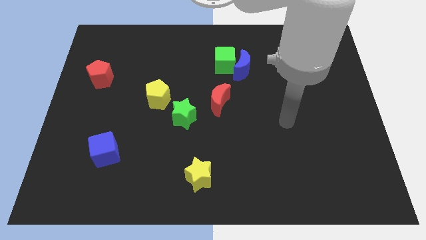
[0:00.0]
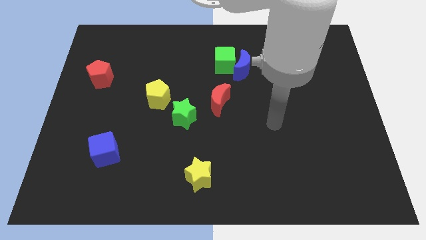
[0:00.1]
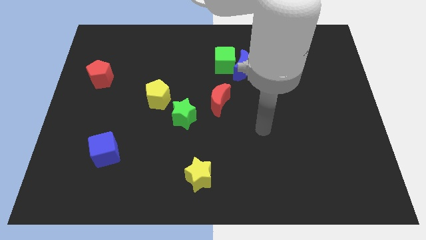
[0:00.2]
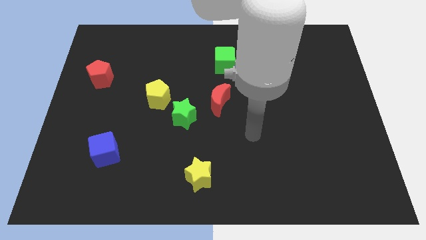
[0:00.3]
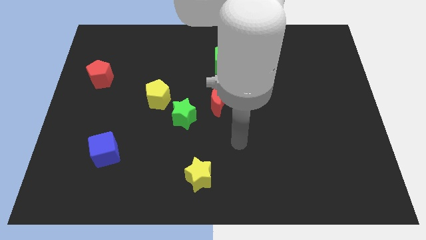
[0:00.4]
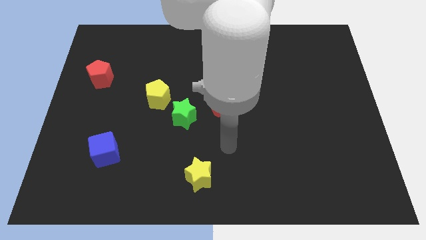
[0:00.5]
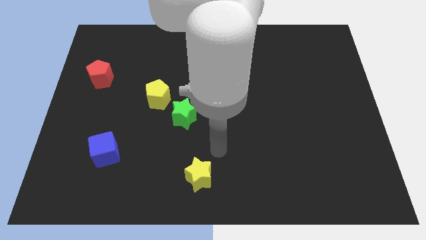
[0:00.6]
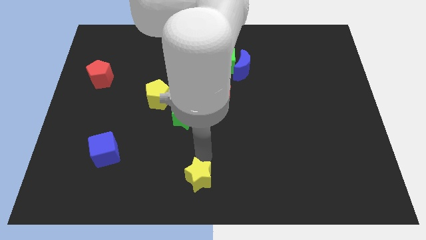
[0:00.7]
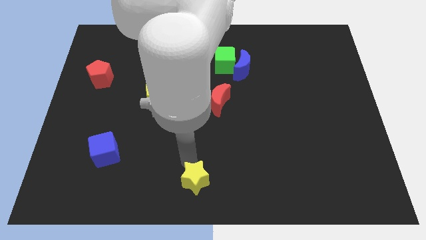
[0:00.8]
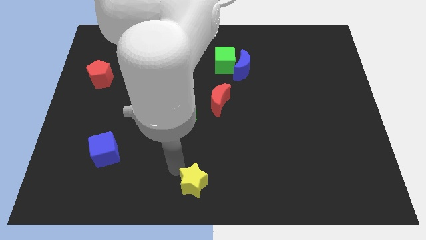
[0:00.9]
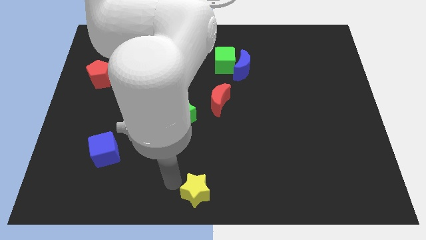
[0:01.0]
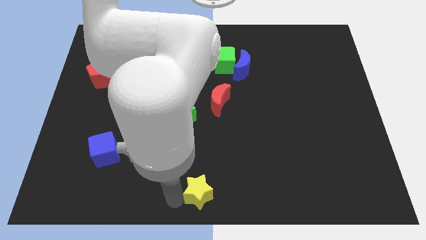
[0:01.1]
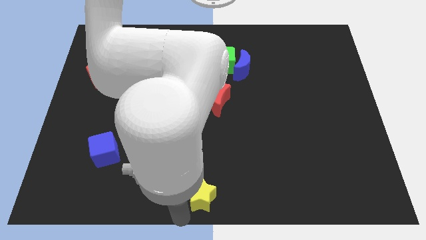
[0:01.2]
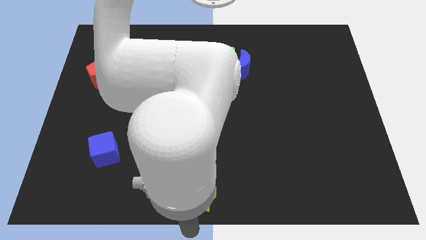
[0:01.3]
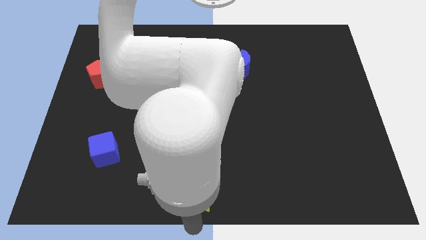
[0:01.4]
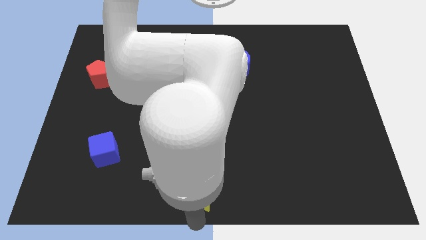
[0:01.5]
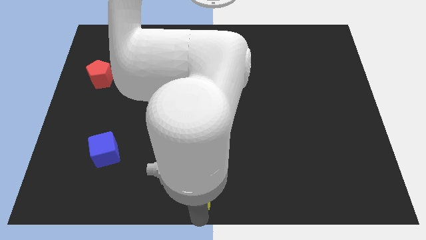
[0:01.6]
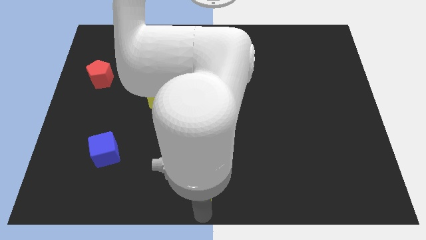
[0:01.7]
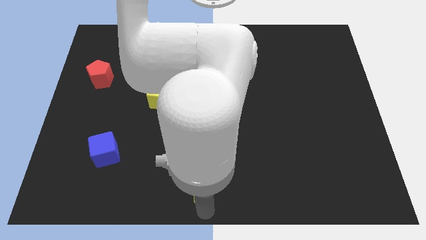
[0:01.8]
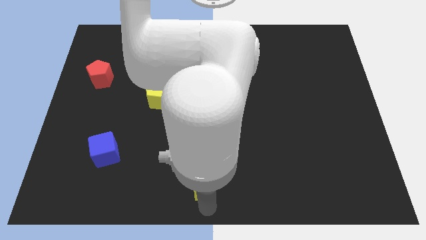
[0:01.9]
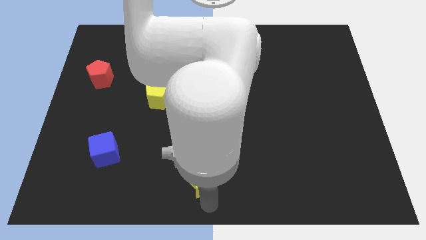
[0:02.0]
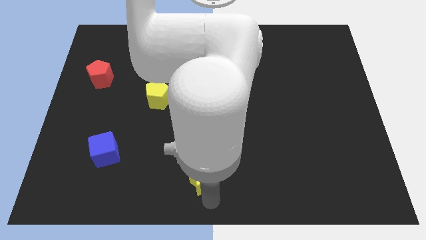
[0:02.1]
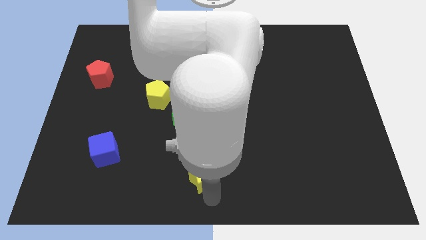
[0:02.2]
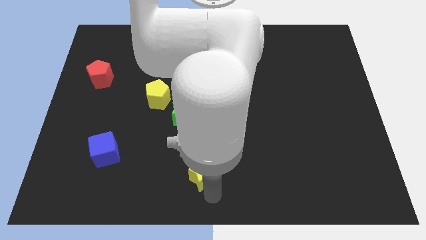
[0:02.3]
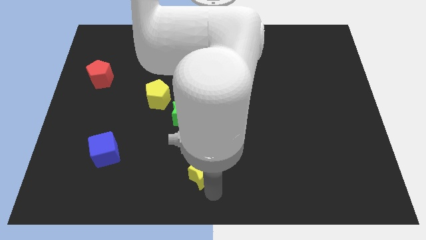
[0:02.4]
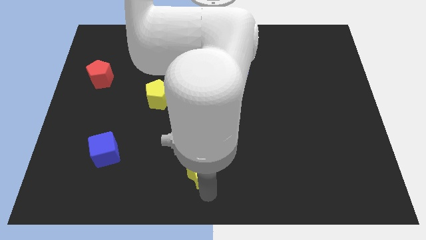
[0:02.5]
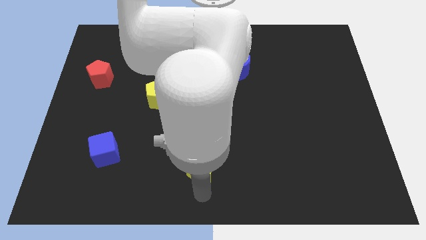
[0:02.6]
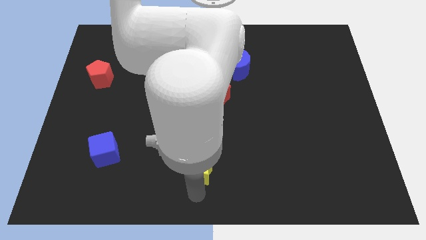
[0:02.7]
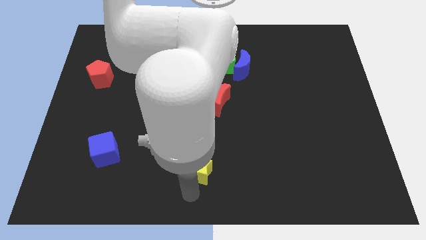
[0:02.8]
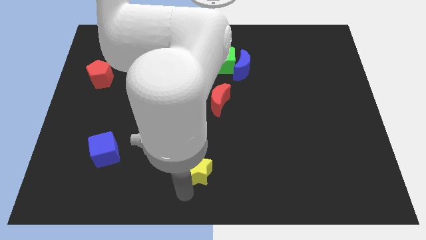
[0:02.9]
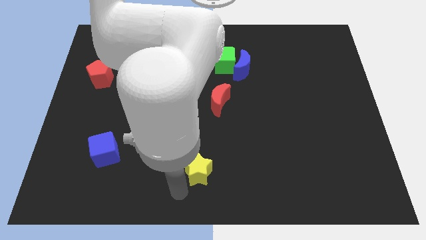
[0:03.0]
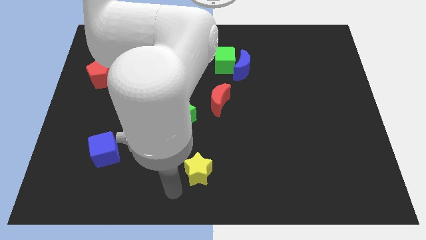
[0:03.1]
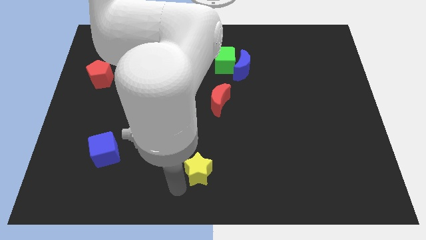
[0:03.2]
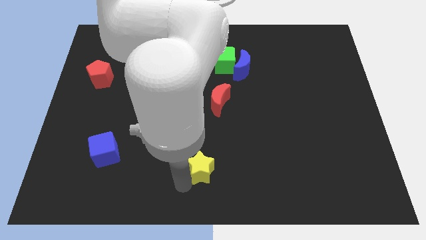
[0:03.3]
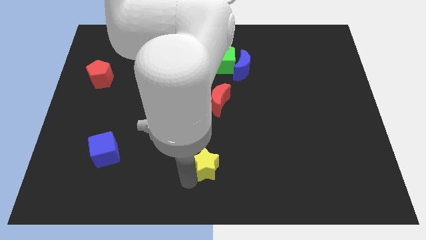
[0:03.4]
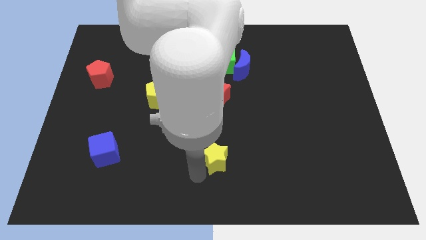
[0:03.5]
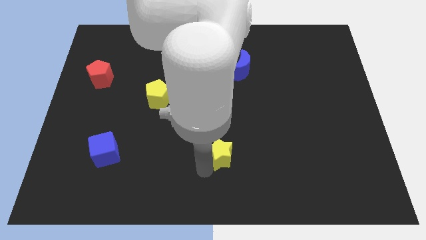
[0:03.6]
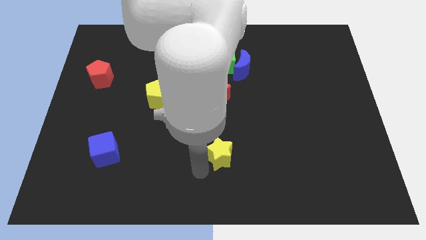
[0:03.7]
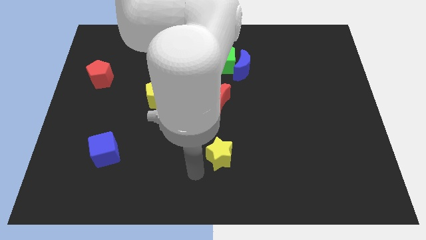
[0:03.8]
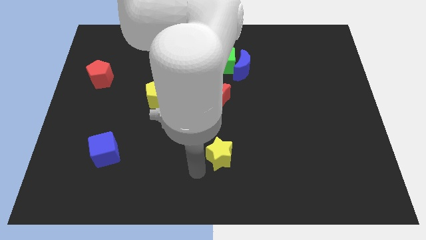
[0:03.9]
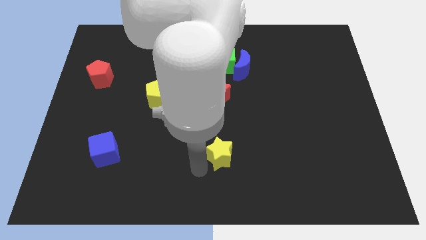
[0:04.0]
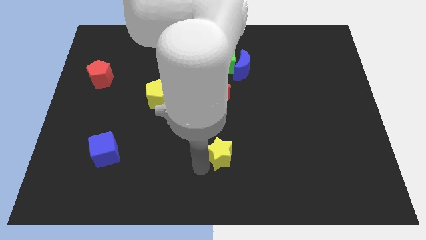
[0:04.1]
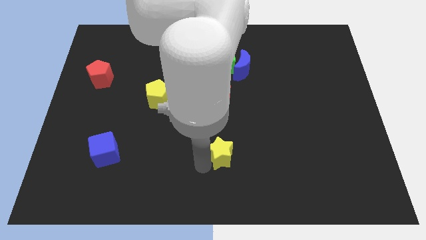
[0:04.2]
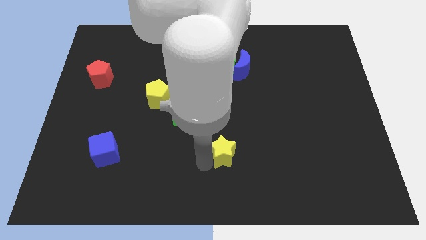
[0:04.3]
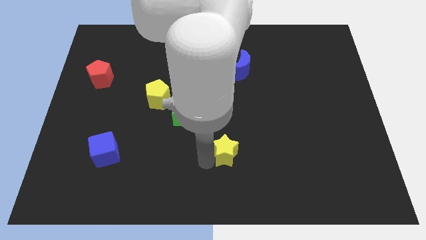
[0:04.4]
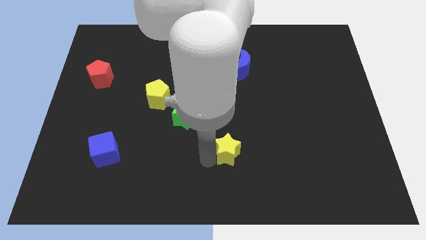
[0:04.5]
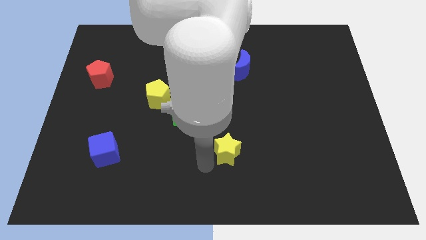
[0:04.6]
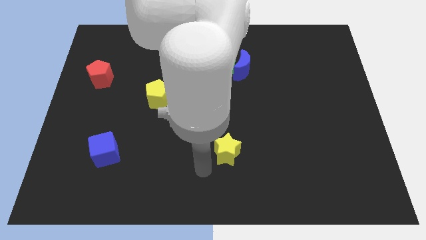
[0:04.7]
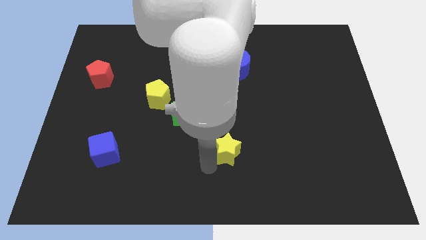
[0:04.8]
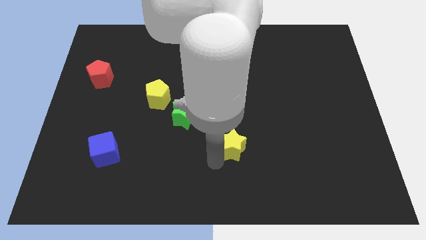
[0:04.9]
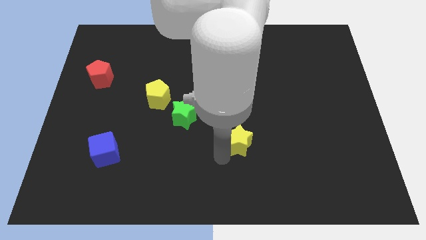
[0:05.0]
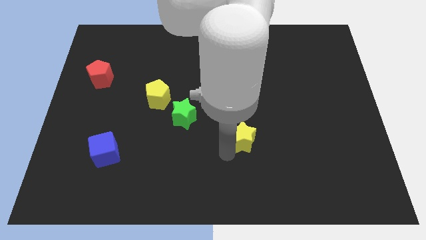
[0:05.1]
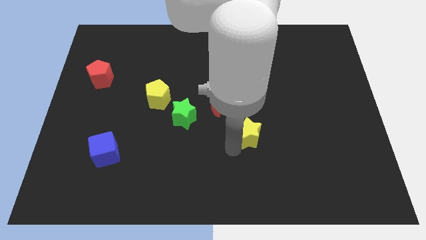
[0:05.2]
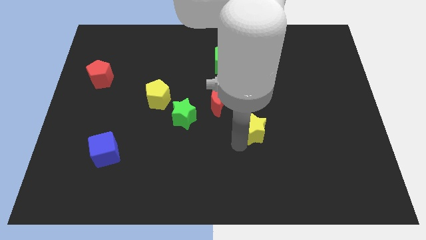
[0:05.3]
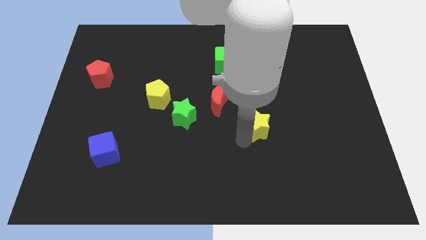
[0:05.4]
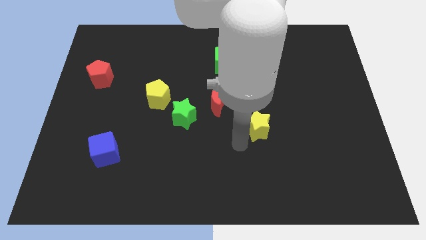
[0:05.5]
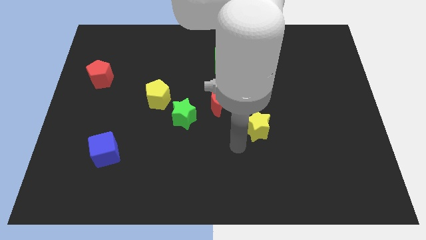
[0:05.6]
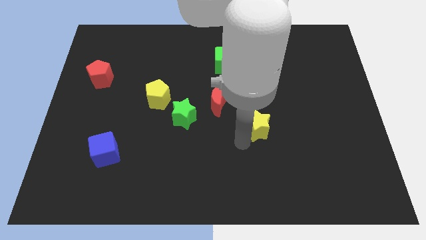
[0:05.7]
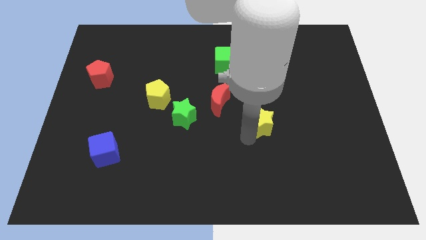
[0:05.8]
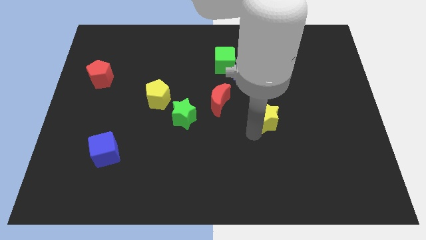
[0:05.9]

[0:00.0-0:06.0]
push the yellow star upwards and then right

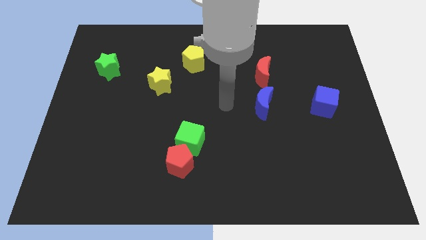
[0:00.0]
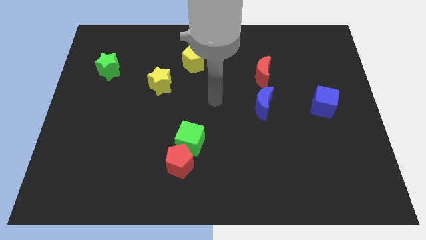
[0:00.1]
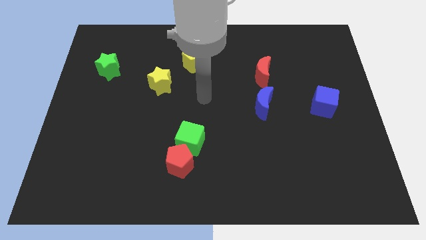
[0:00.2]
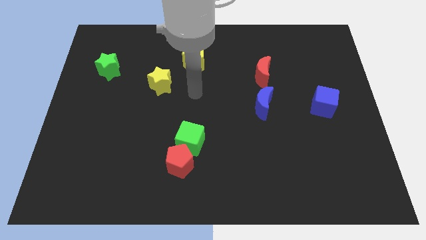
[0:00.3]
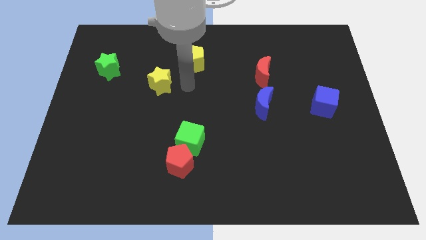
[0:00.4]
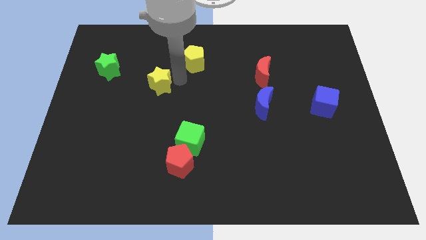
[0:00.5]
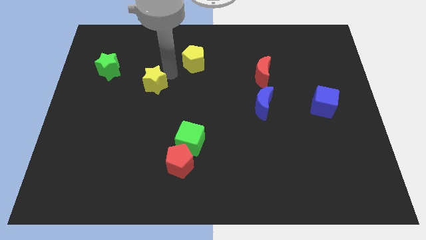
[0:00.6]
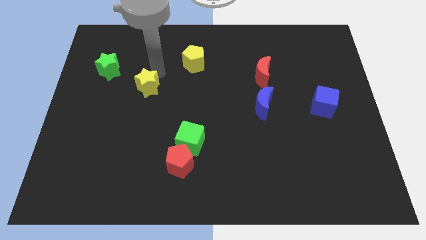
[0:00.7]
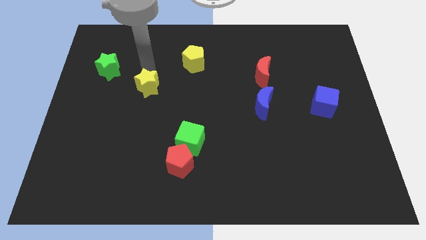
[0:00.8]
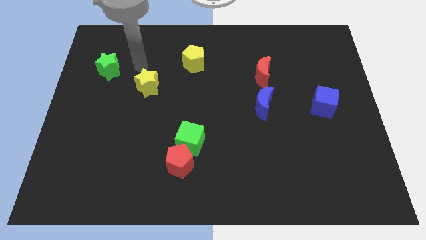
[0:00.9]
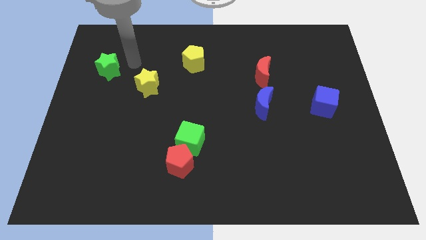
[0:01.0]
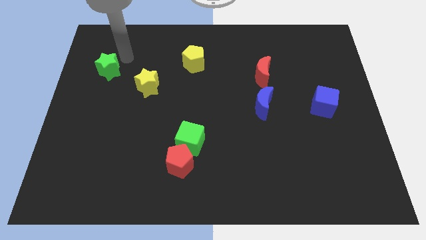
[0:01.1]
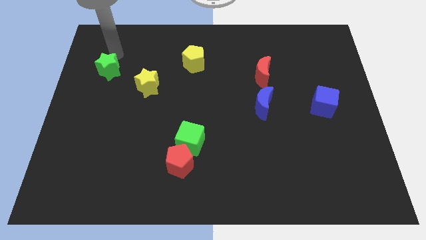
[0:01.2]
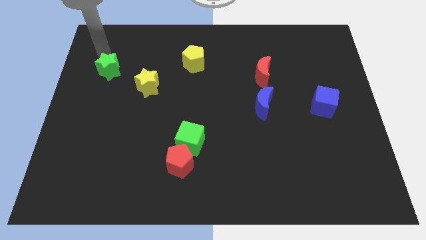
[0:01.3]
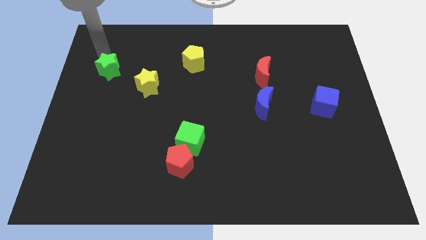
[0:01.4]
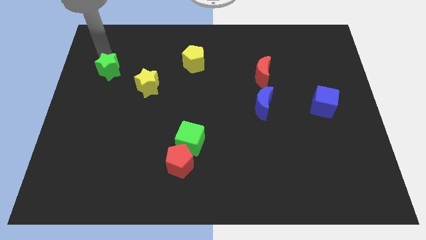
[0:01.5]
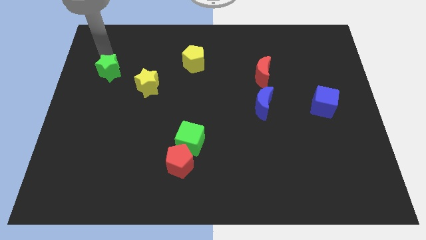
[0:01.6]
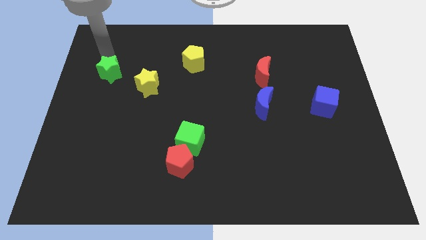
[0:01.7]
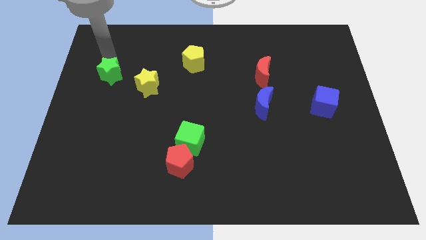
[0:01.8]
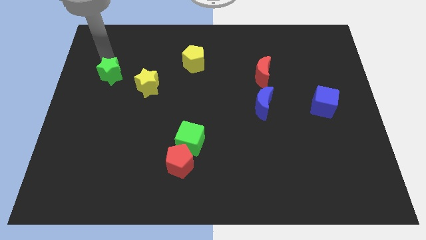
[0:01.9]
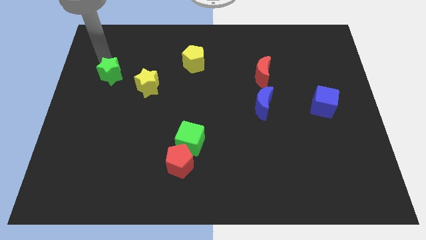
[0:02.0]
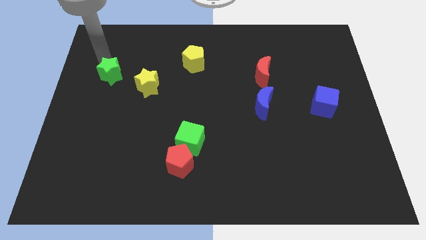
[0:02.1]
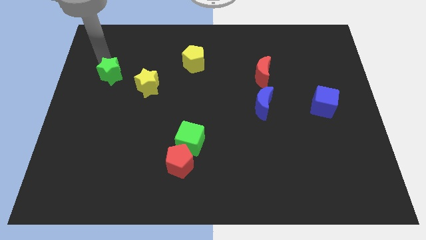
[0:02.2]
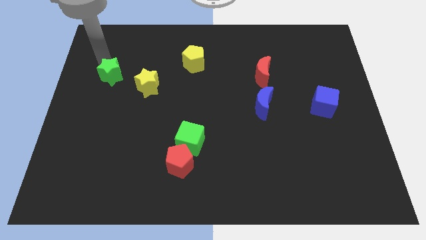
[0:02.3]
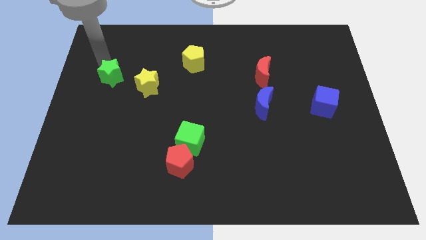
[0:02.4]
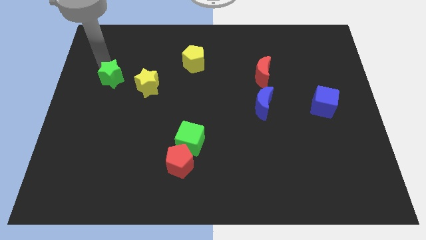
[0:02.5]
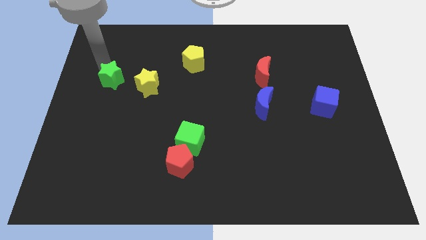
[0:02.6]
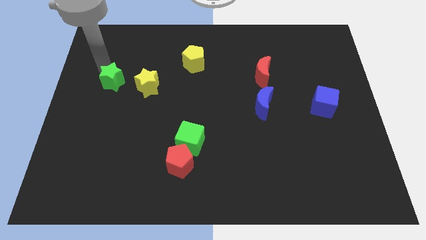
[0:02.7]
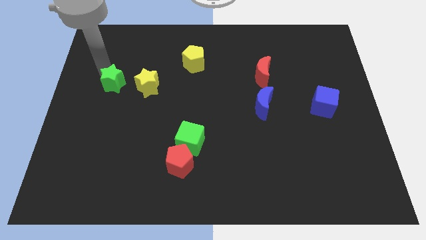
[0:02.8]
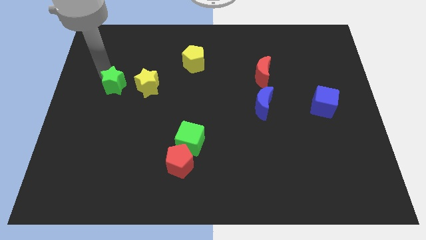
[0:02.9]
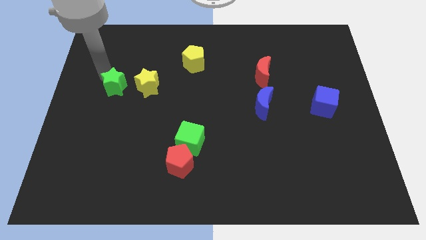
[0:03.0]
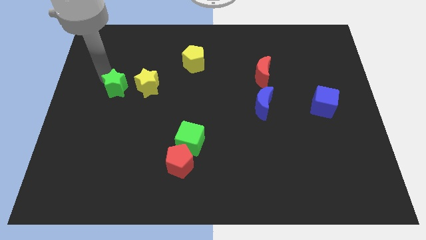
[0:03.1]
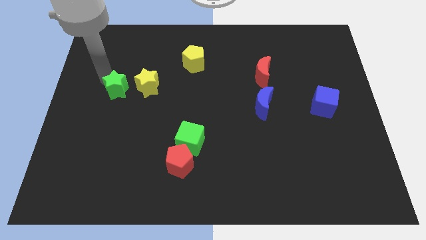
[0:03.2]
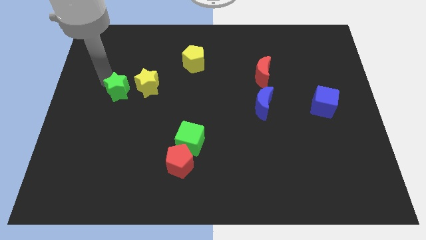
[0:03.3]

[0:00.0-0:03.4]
slide the green star downwards and to the right diagonally slightly
